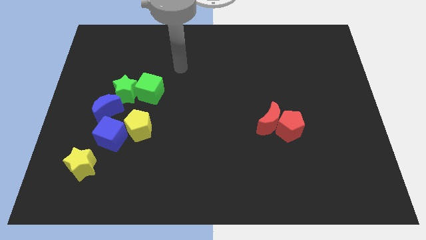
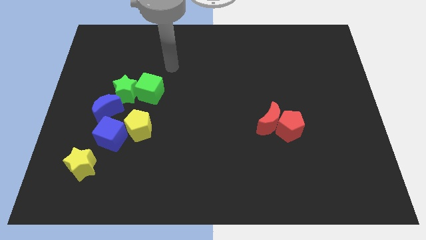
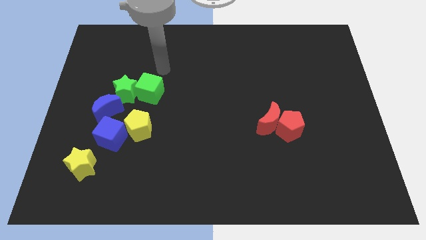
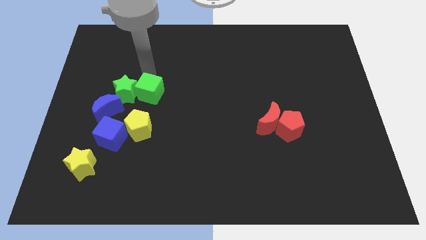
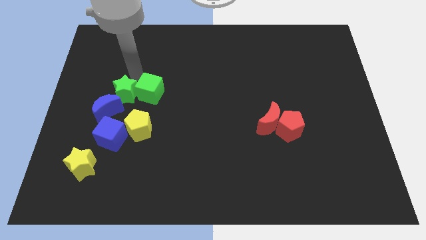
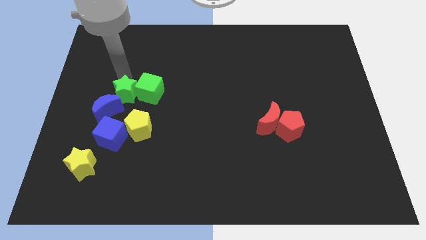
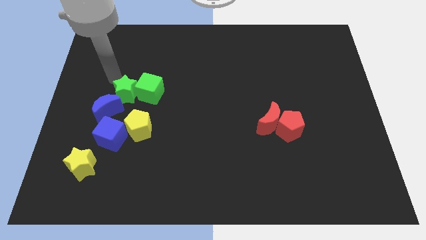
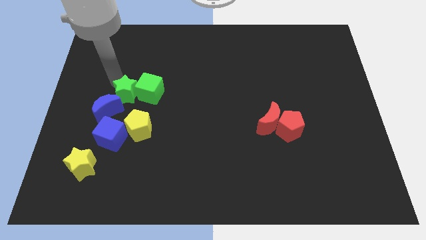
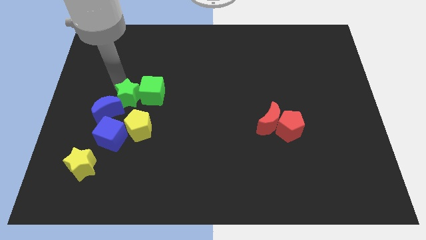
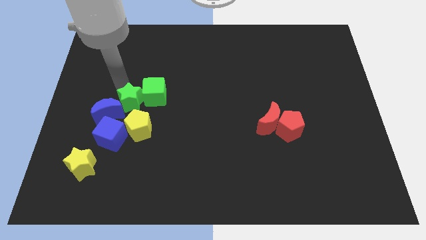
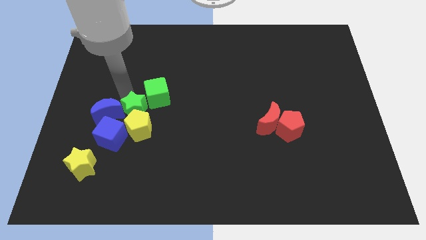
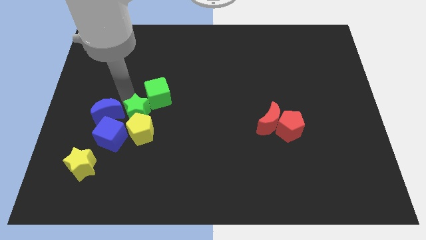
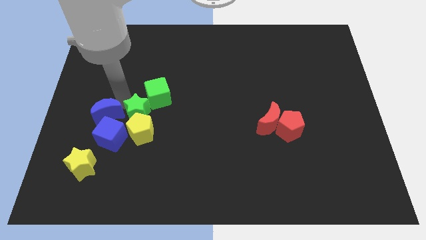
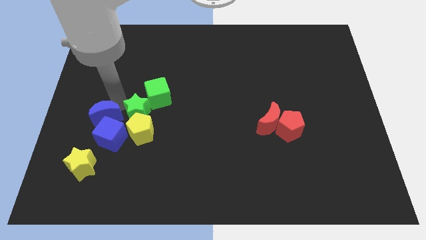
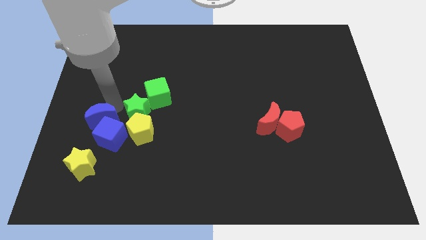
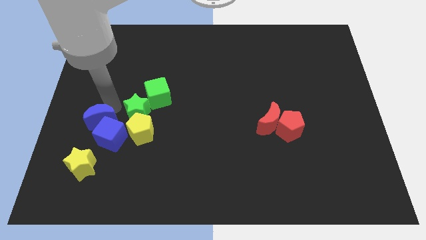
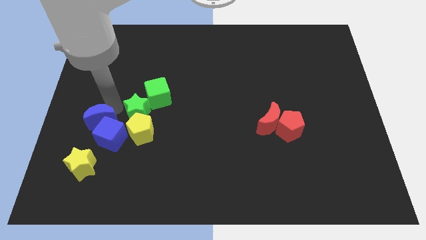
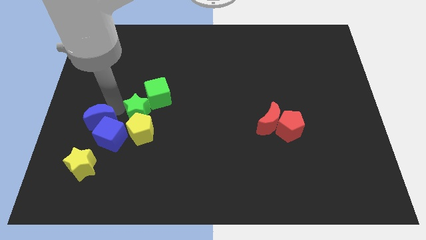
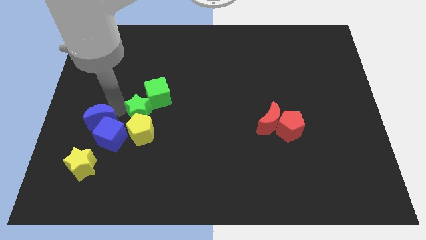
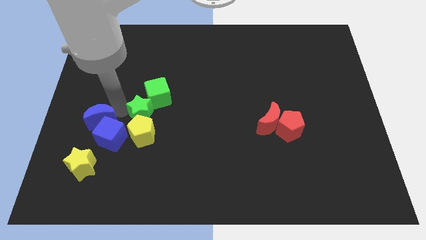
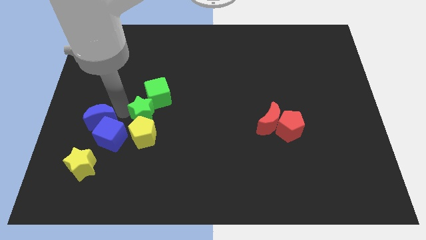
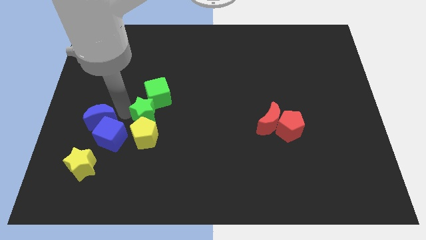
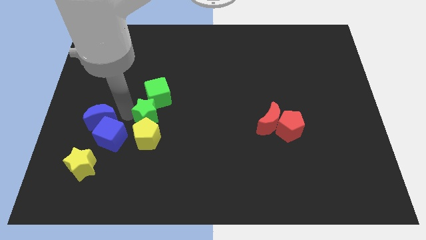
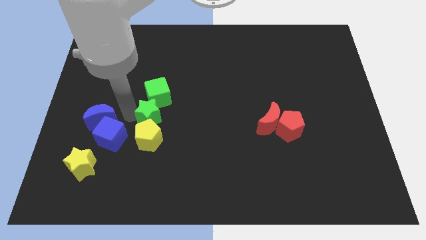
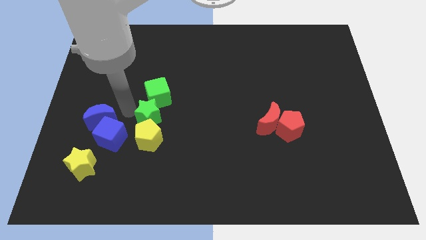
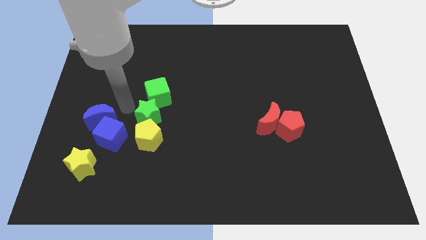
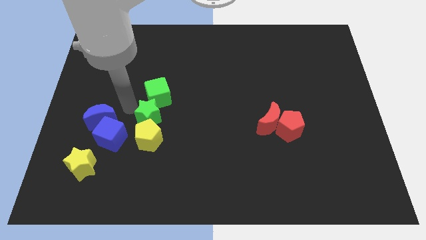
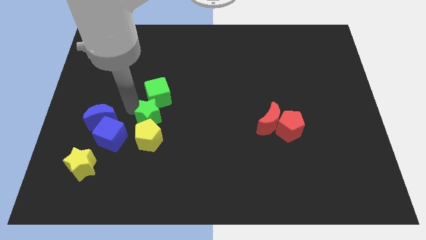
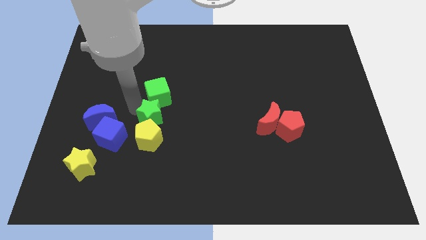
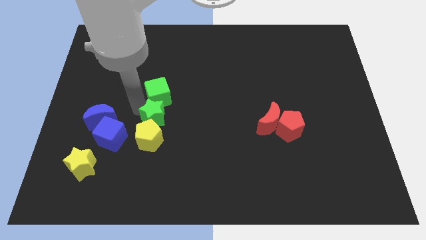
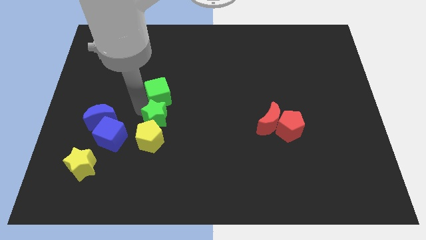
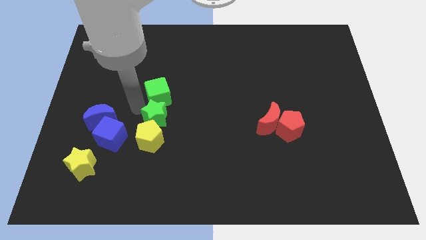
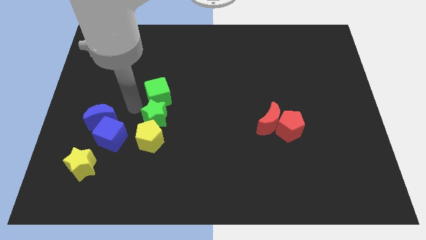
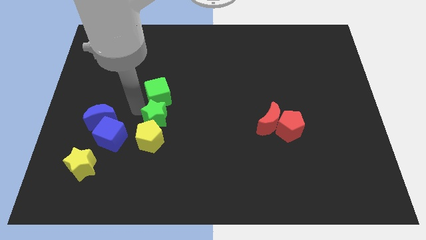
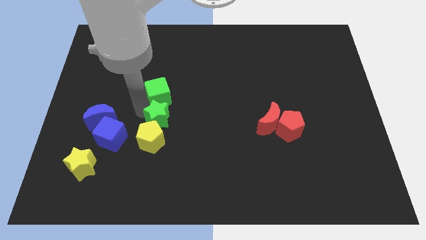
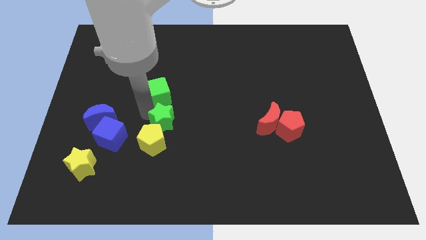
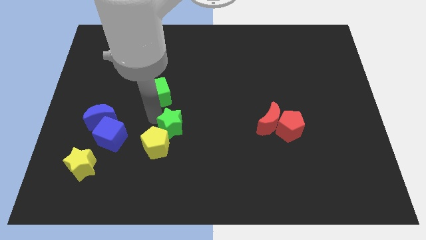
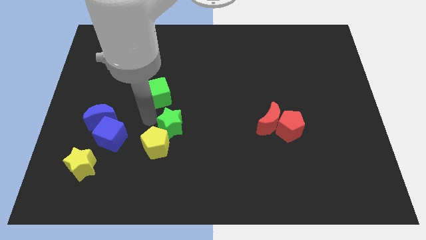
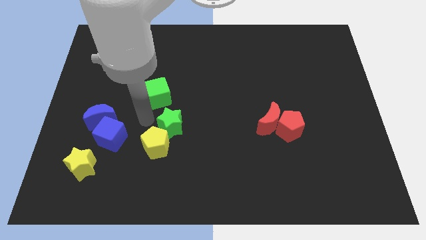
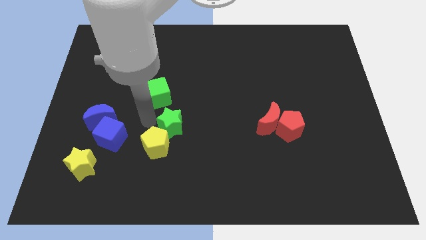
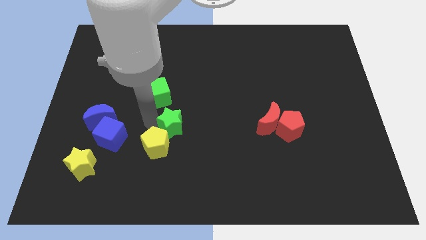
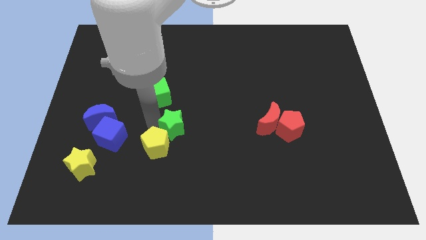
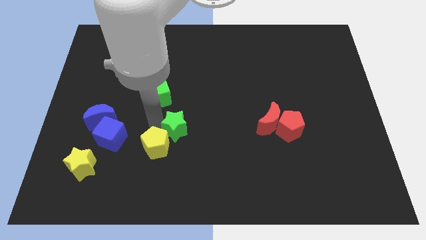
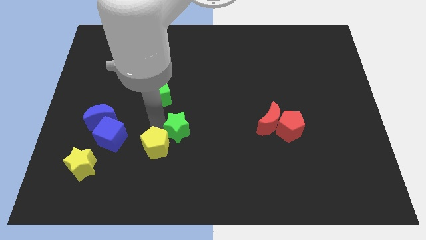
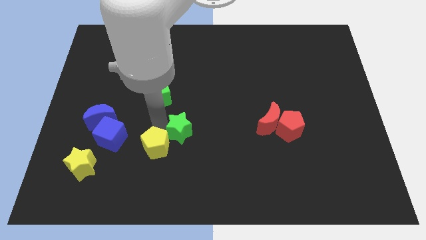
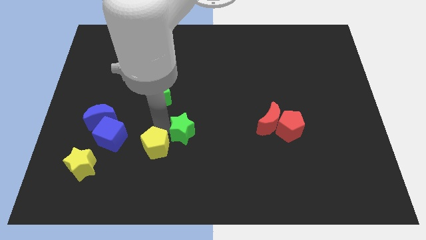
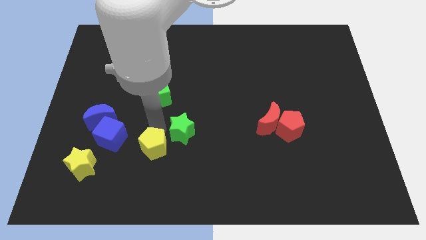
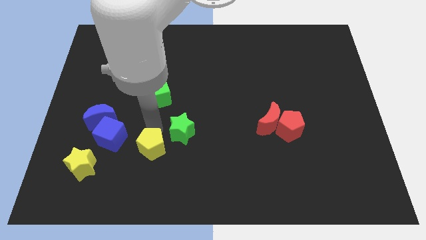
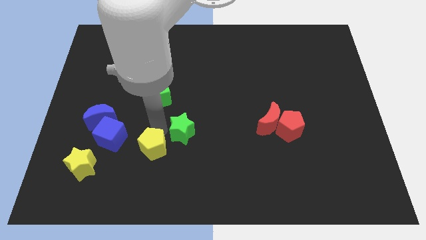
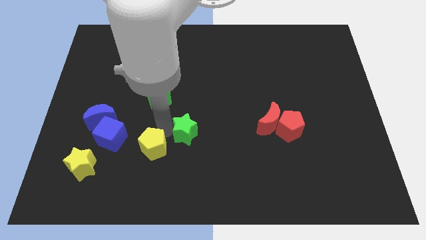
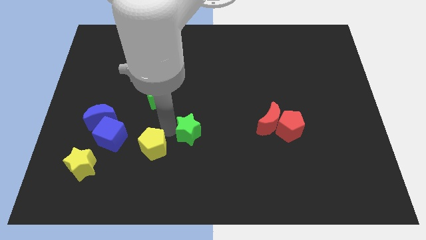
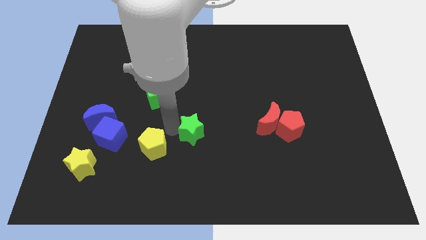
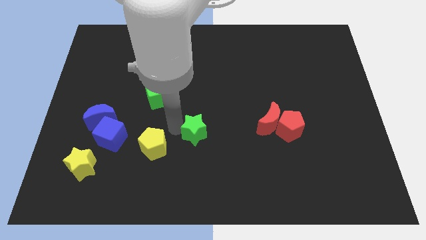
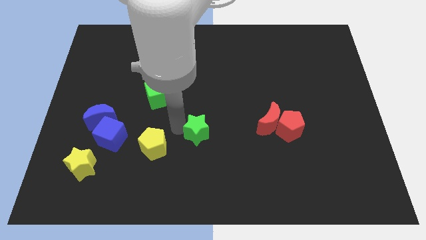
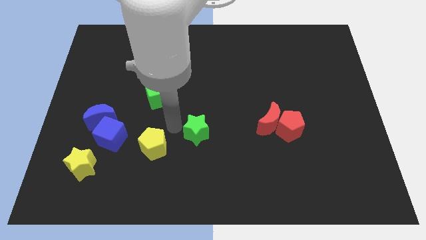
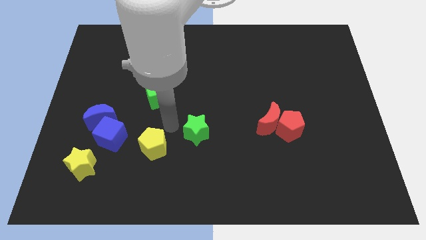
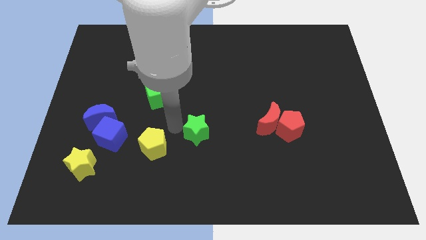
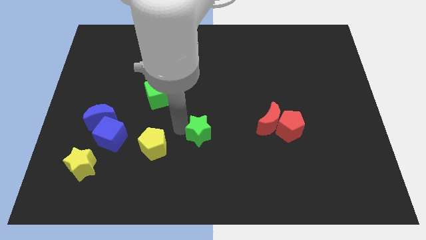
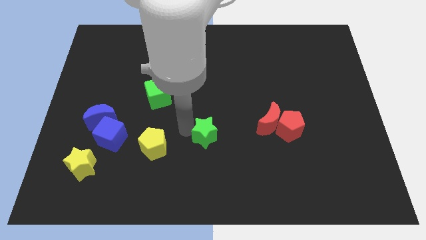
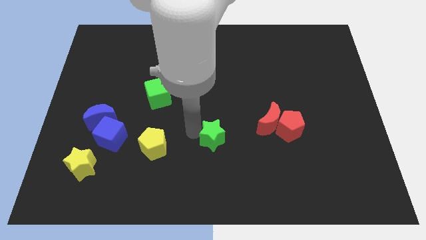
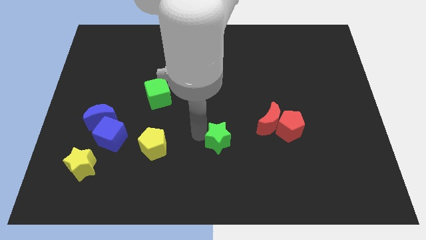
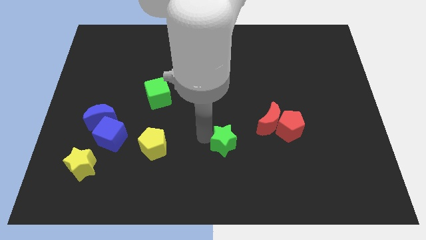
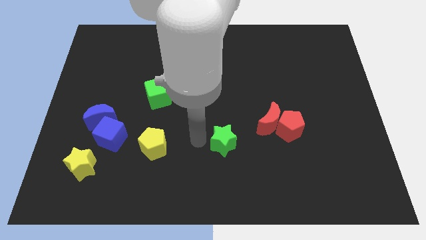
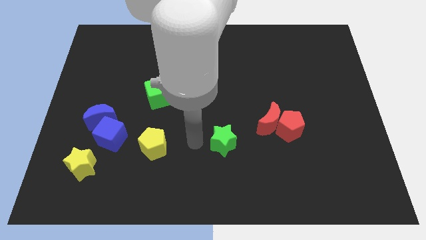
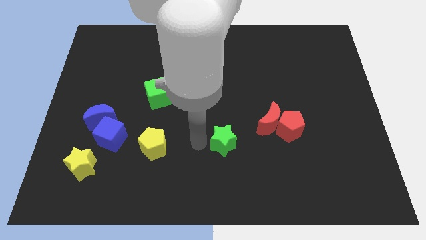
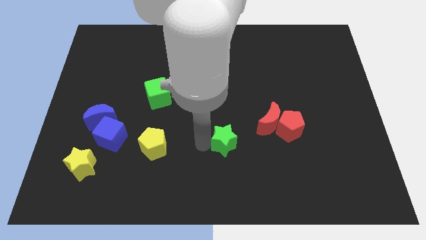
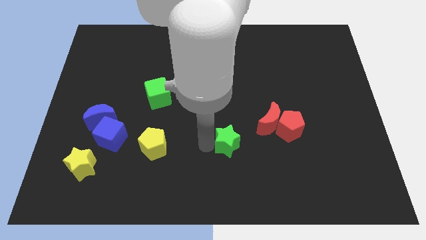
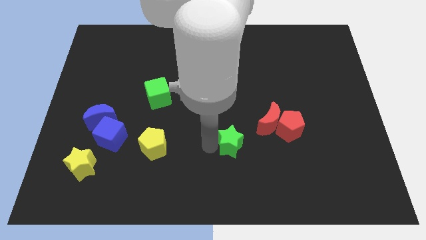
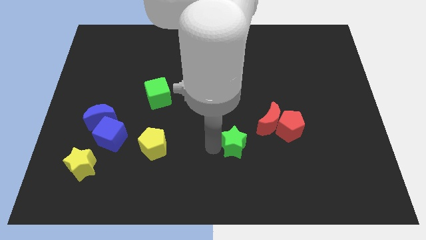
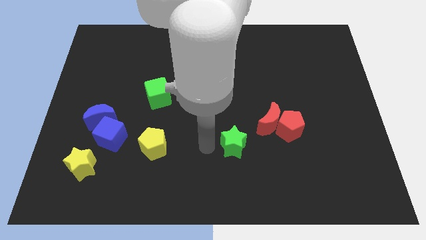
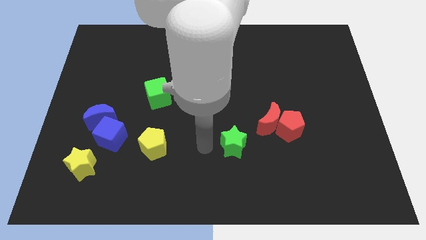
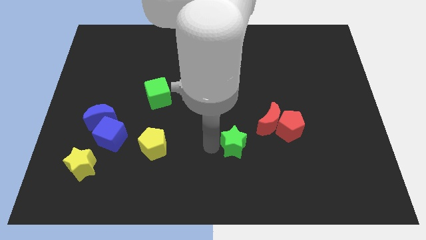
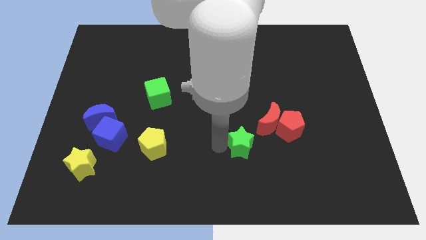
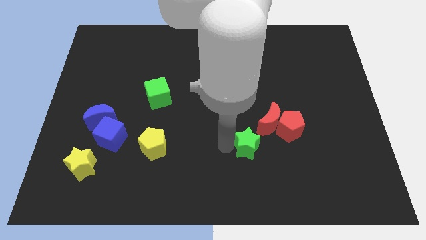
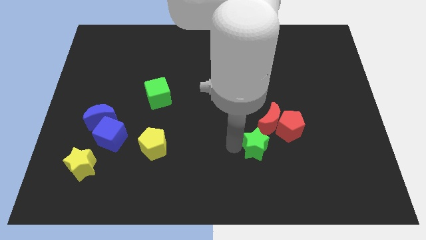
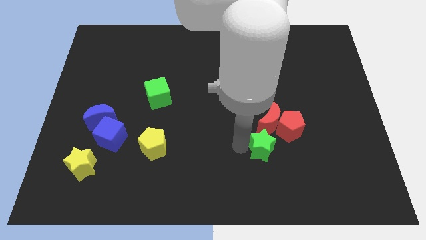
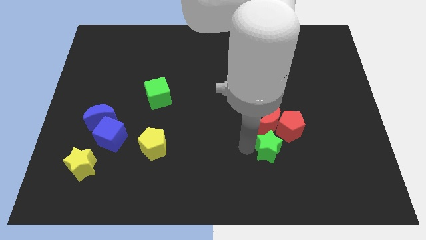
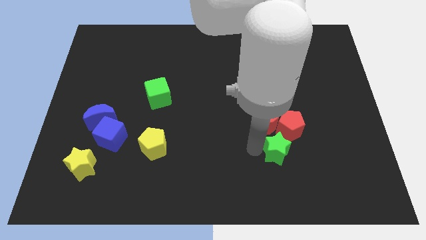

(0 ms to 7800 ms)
slide the green star diagonally down and to the right of the red moon
